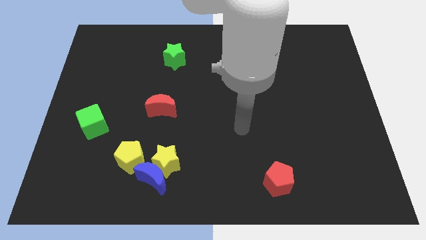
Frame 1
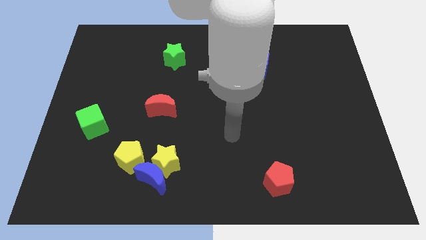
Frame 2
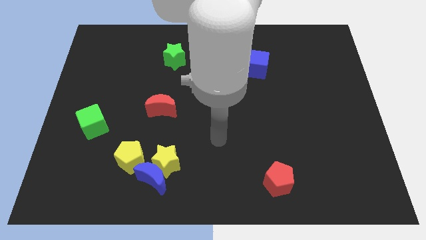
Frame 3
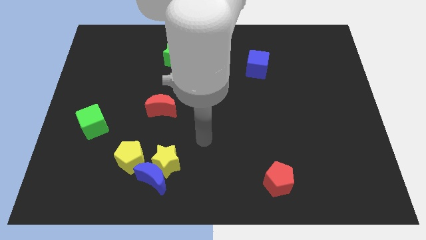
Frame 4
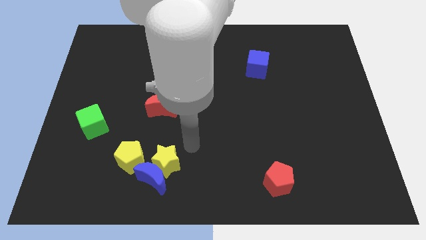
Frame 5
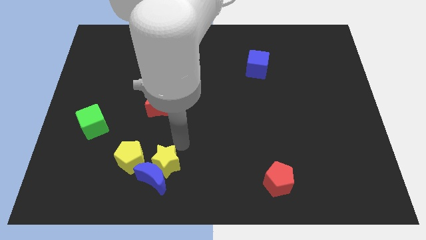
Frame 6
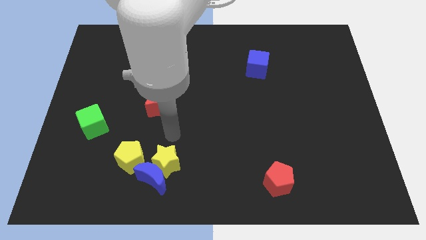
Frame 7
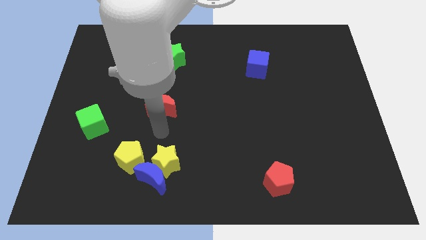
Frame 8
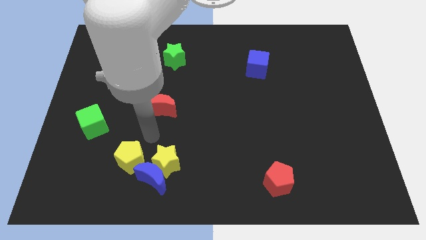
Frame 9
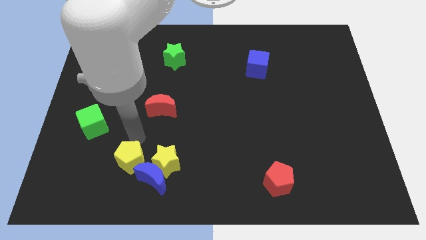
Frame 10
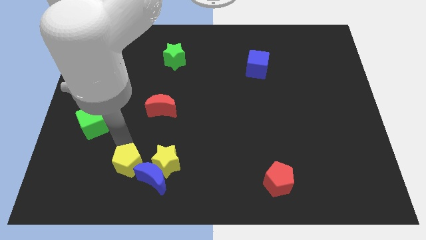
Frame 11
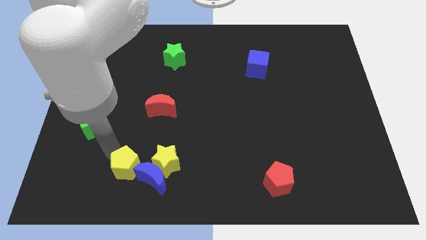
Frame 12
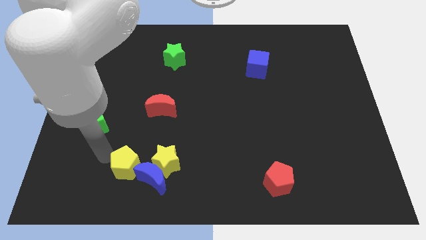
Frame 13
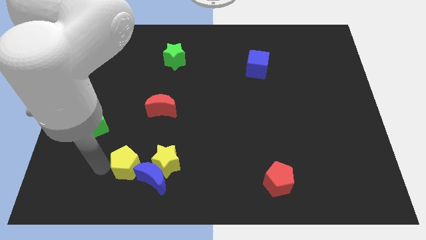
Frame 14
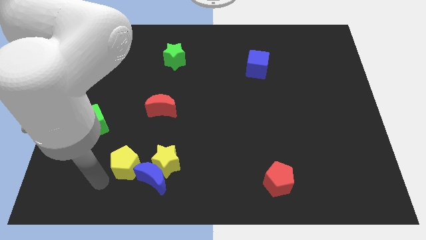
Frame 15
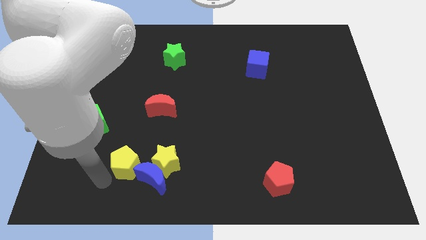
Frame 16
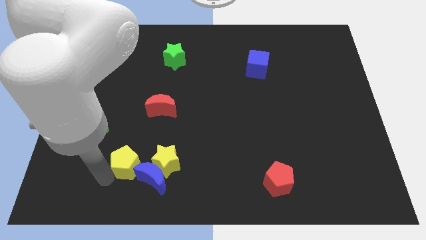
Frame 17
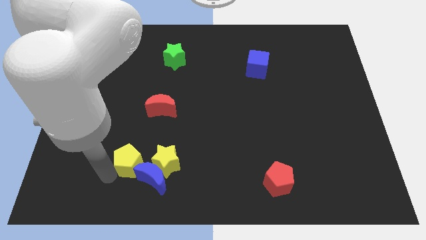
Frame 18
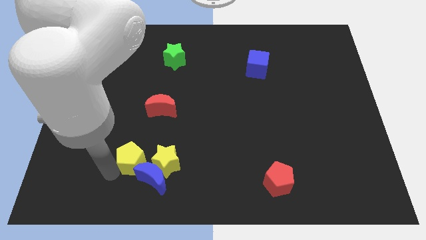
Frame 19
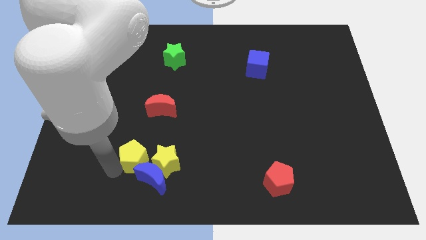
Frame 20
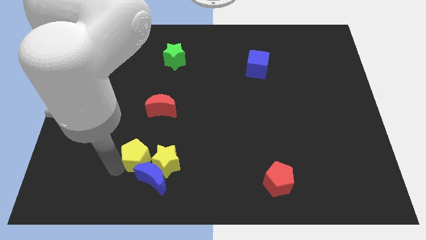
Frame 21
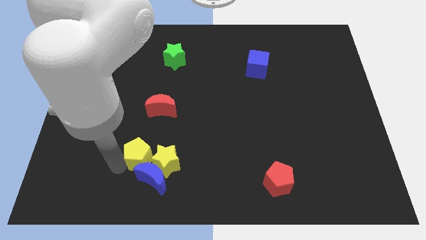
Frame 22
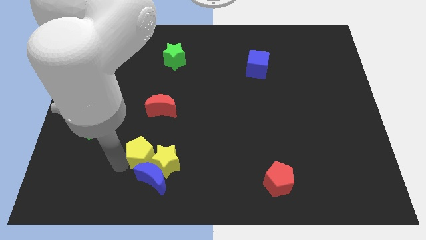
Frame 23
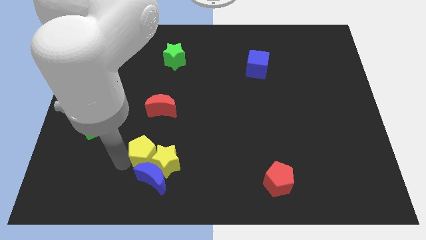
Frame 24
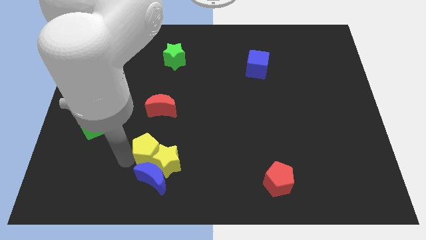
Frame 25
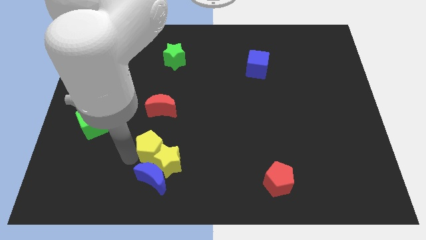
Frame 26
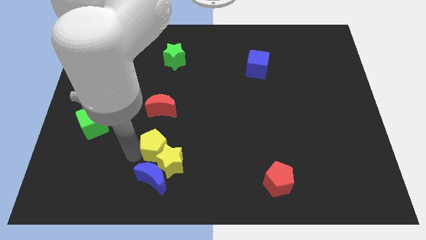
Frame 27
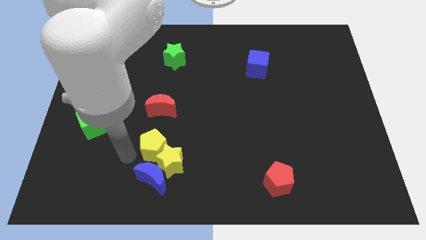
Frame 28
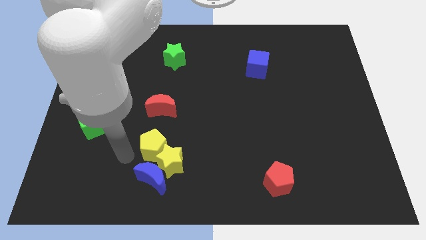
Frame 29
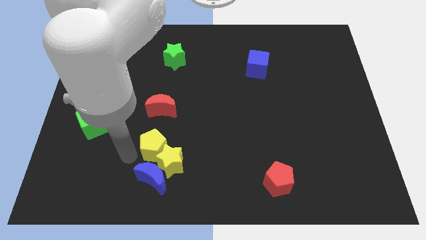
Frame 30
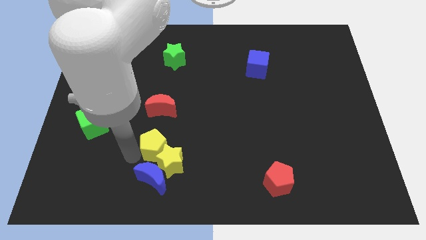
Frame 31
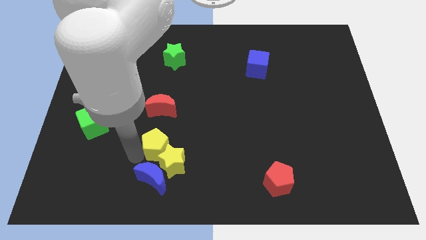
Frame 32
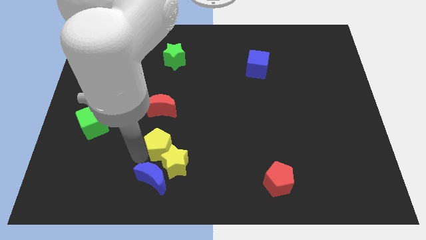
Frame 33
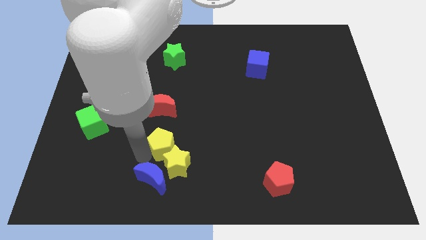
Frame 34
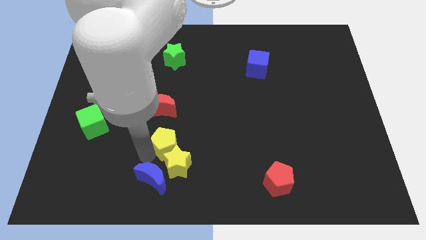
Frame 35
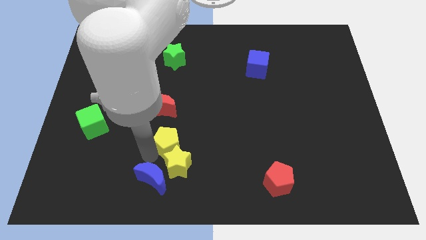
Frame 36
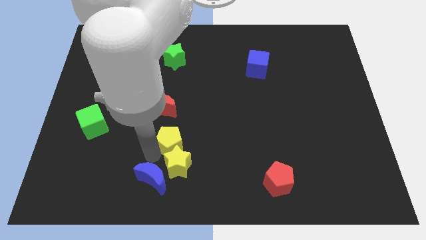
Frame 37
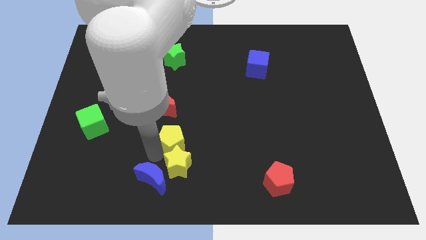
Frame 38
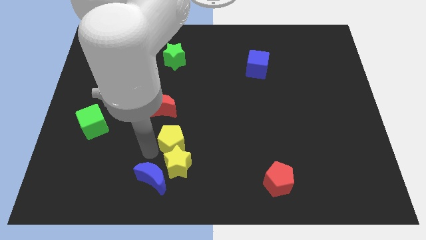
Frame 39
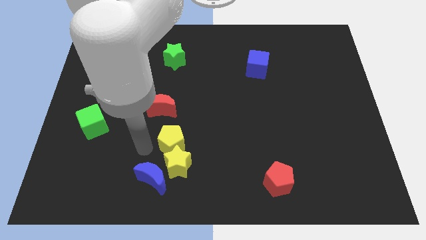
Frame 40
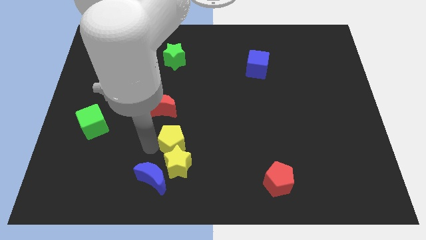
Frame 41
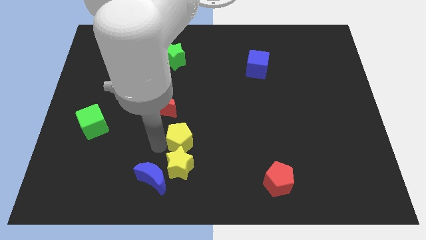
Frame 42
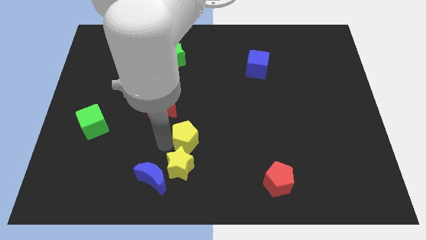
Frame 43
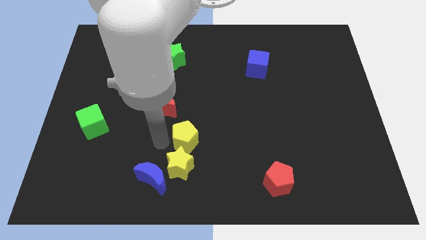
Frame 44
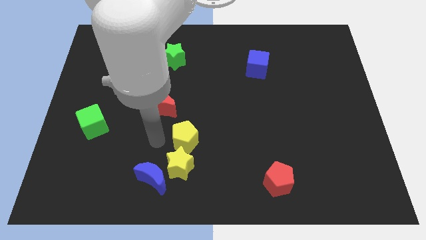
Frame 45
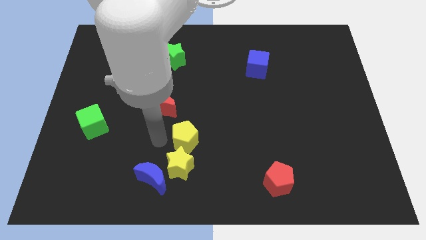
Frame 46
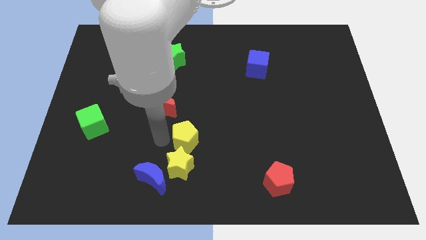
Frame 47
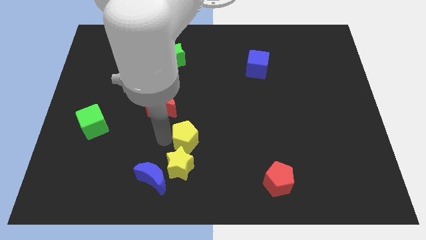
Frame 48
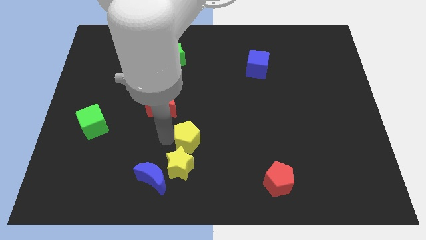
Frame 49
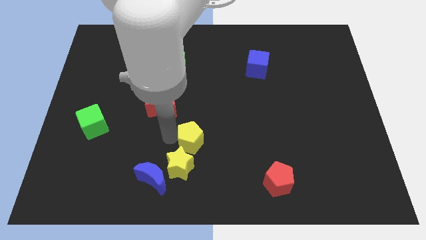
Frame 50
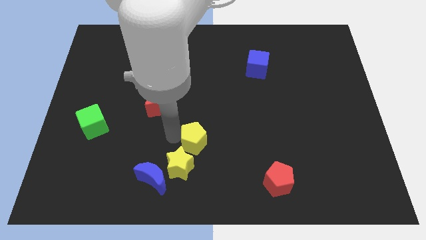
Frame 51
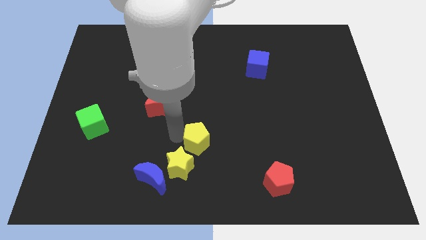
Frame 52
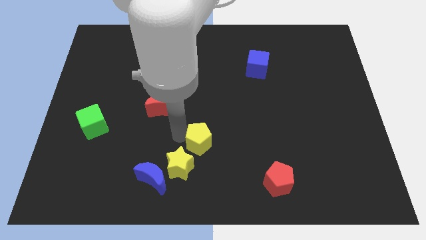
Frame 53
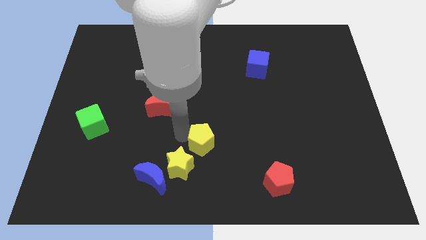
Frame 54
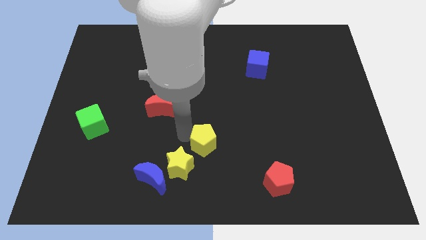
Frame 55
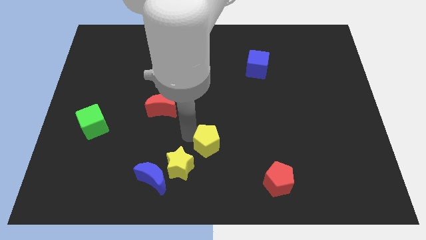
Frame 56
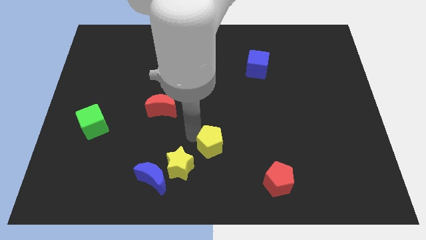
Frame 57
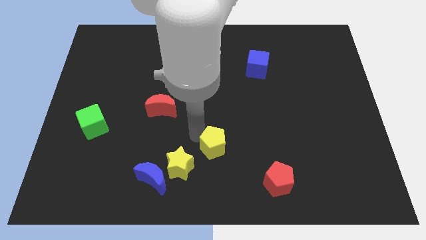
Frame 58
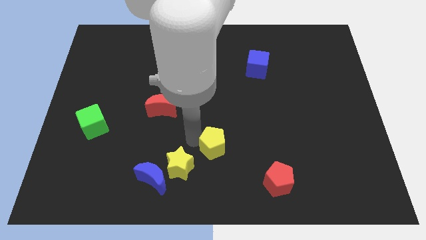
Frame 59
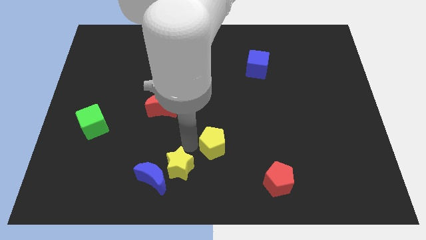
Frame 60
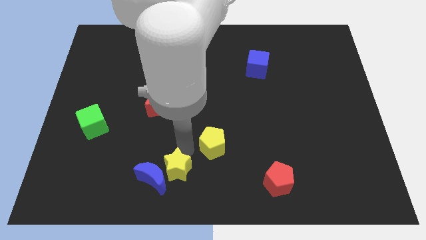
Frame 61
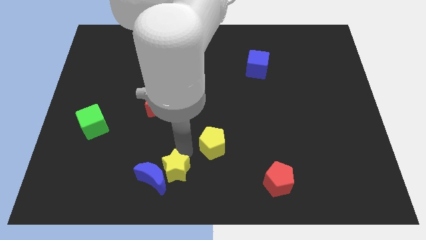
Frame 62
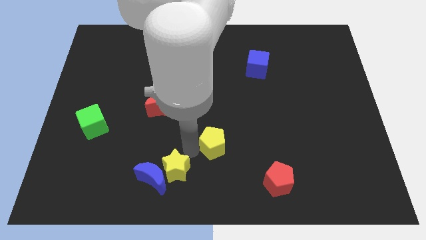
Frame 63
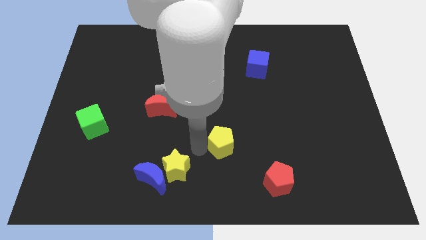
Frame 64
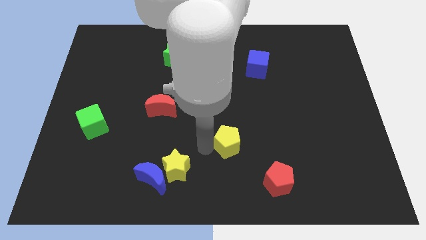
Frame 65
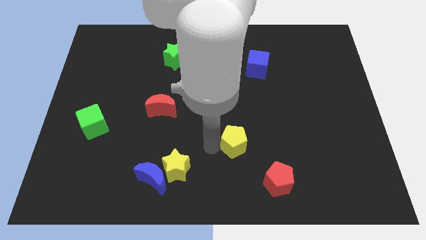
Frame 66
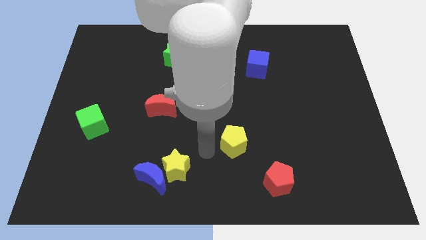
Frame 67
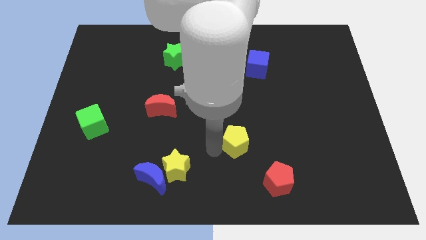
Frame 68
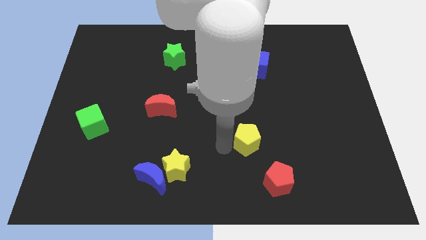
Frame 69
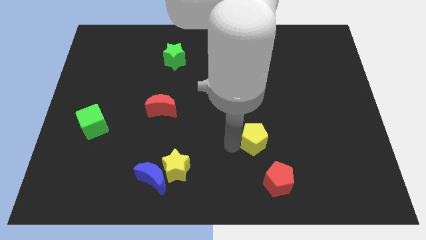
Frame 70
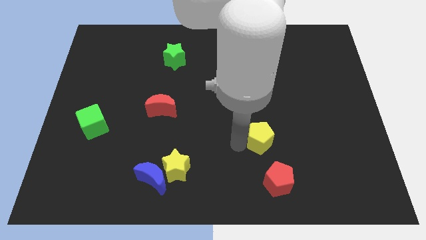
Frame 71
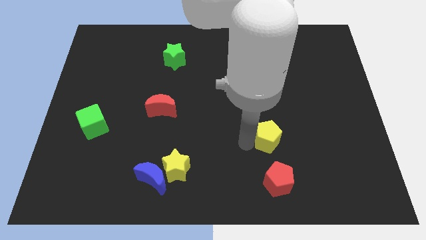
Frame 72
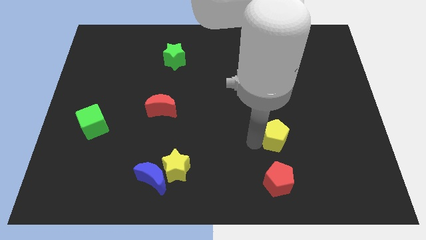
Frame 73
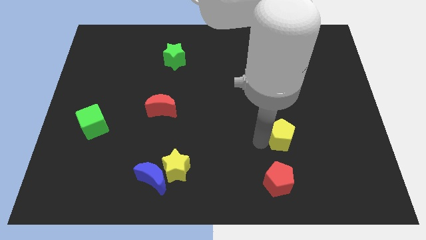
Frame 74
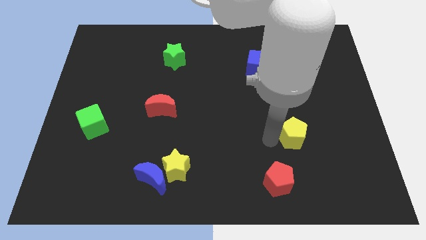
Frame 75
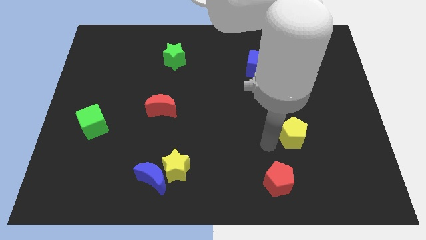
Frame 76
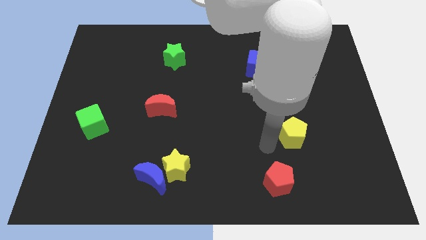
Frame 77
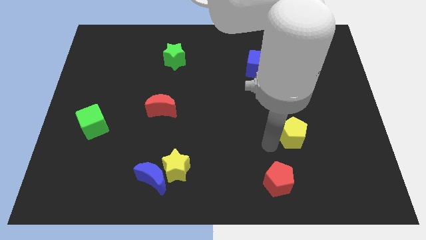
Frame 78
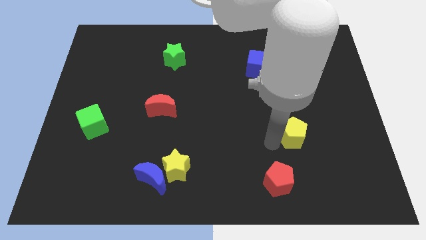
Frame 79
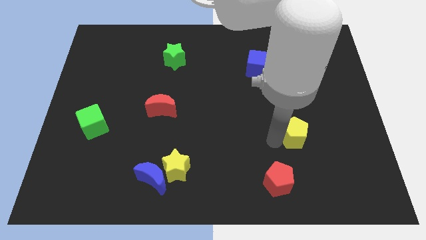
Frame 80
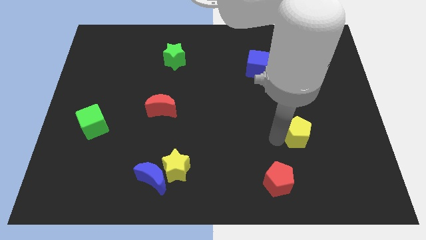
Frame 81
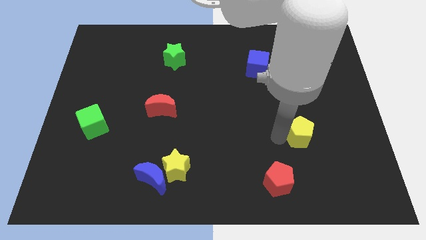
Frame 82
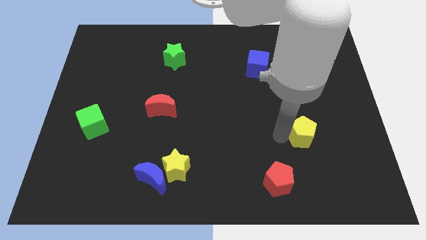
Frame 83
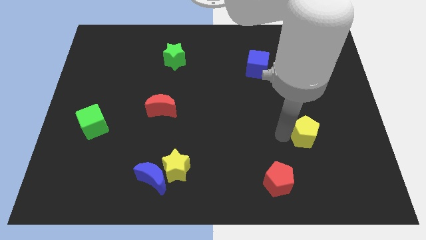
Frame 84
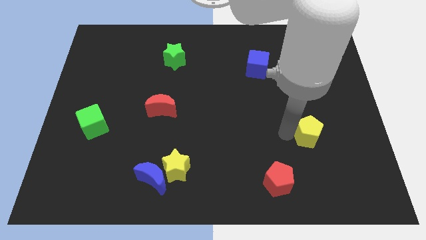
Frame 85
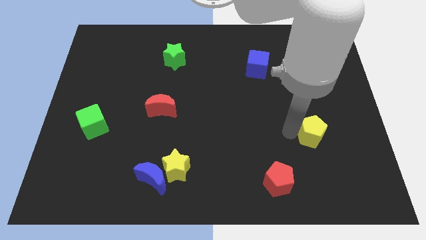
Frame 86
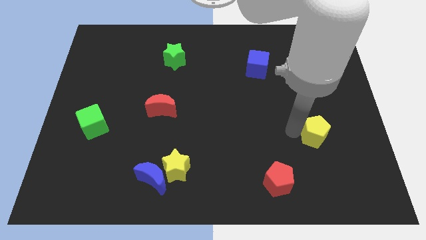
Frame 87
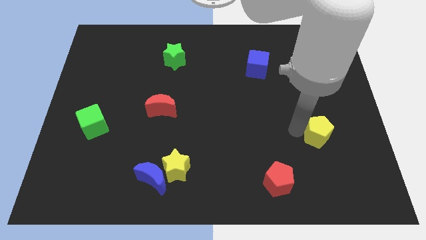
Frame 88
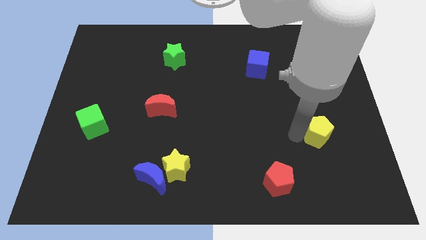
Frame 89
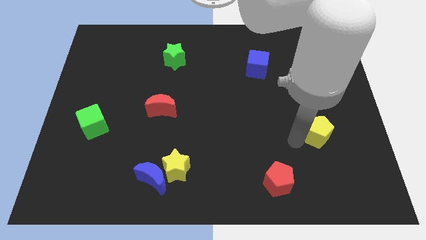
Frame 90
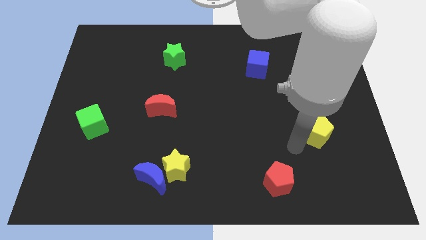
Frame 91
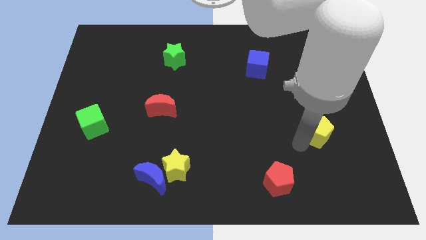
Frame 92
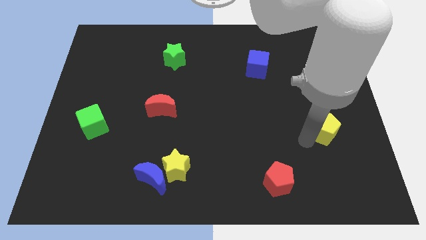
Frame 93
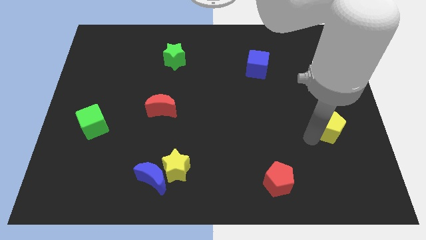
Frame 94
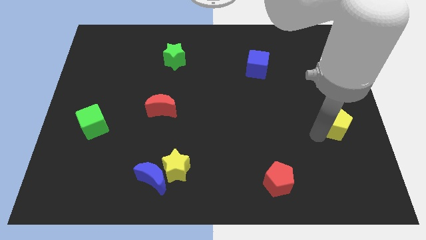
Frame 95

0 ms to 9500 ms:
push the yellow pentagon to the right side
